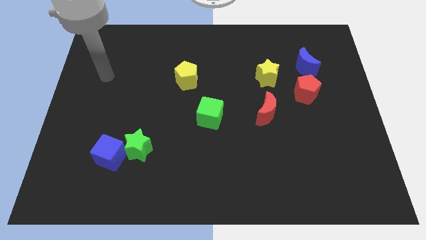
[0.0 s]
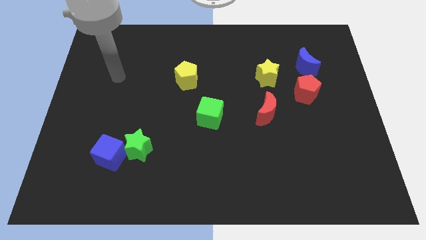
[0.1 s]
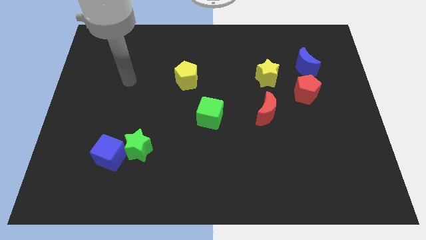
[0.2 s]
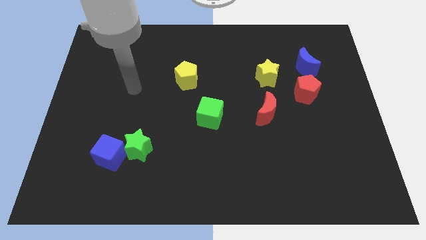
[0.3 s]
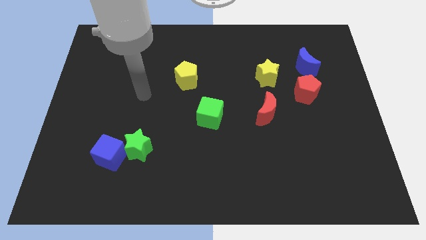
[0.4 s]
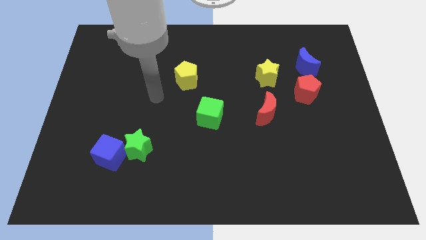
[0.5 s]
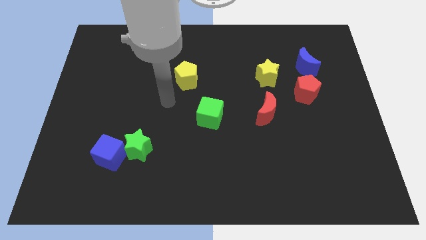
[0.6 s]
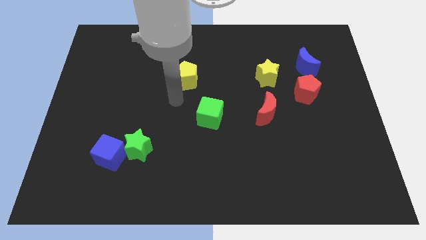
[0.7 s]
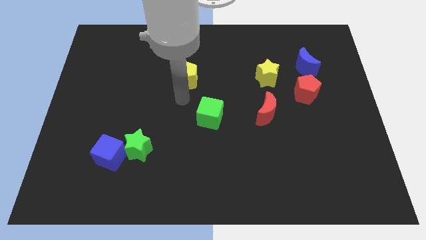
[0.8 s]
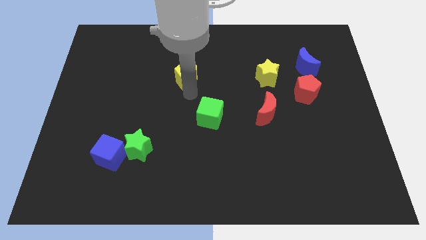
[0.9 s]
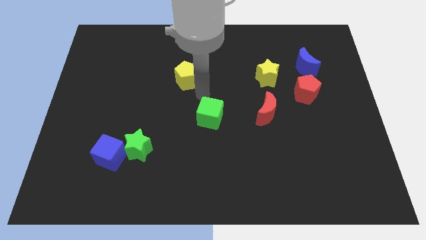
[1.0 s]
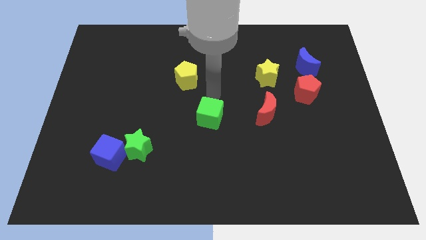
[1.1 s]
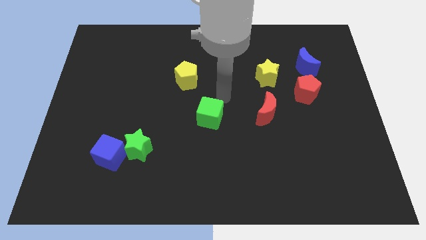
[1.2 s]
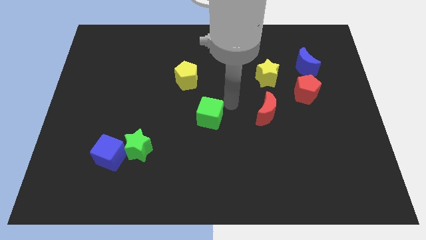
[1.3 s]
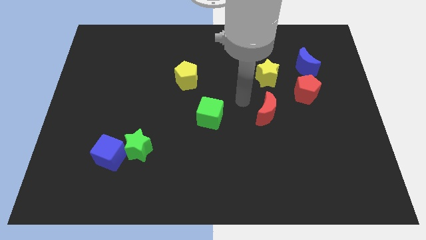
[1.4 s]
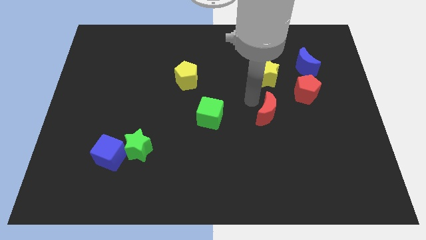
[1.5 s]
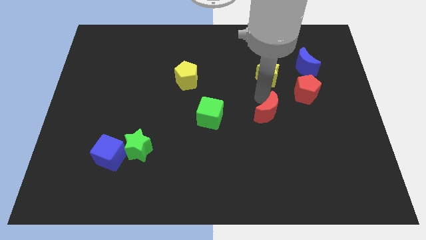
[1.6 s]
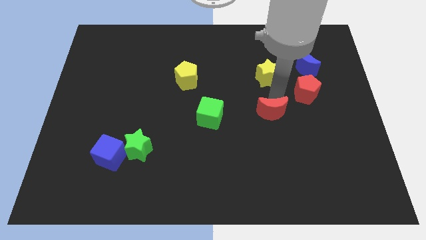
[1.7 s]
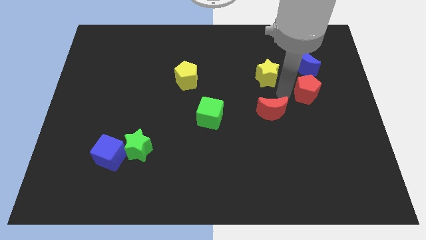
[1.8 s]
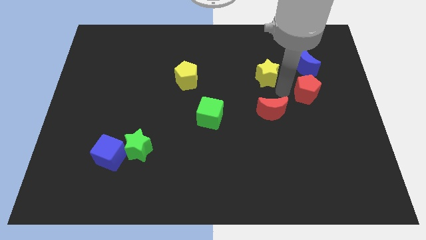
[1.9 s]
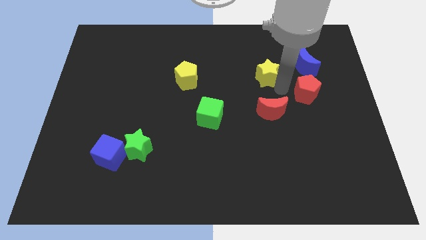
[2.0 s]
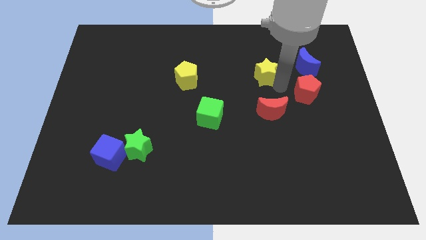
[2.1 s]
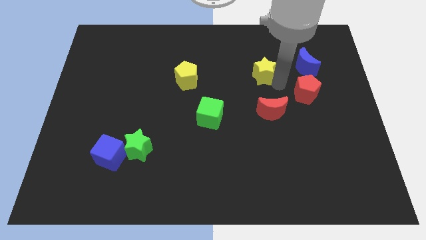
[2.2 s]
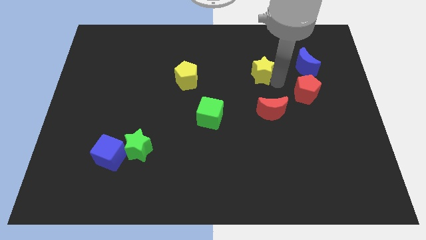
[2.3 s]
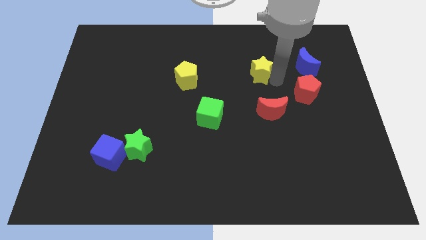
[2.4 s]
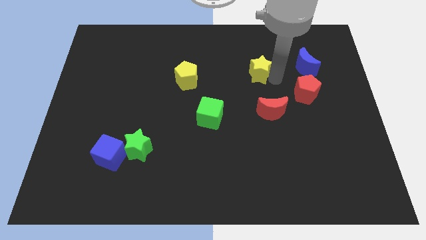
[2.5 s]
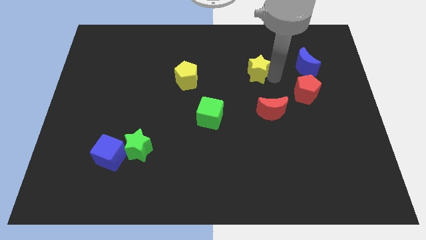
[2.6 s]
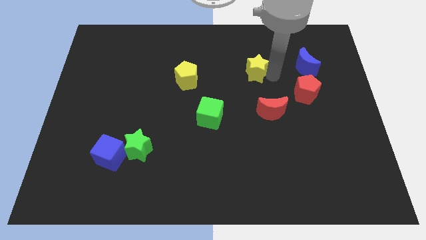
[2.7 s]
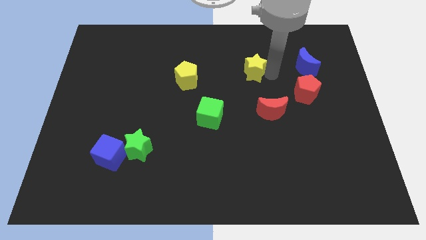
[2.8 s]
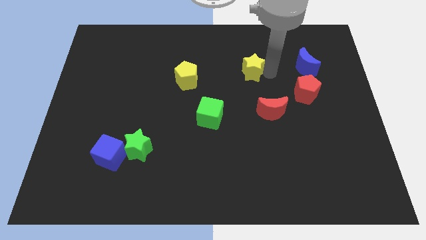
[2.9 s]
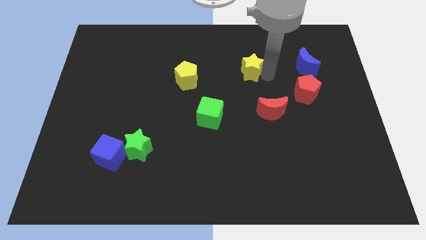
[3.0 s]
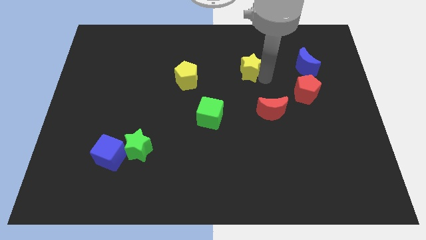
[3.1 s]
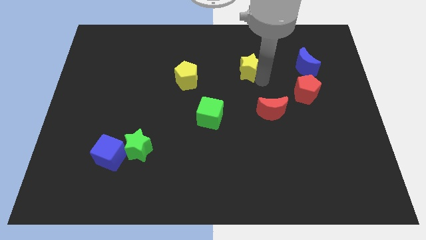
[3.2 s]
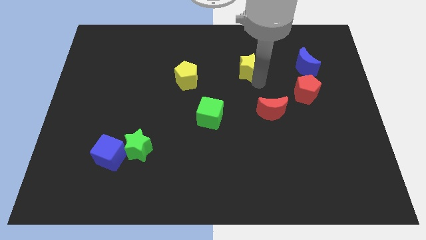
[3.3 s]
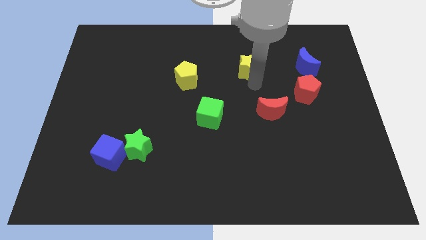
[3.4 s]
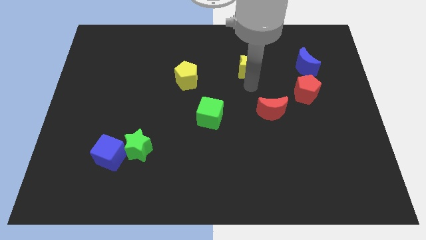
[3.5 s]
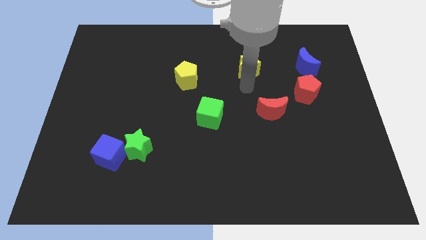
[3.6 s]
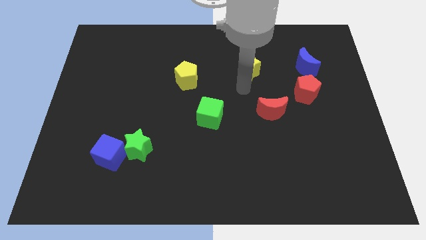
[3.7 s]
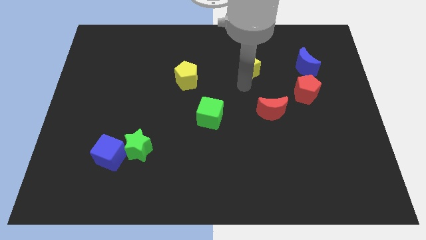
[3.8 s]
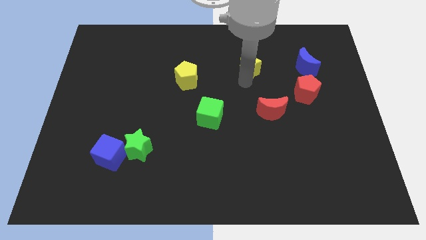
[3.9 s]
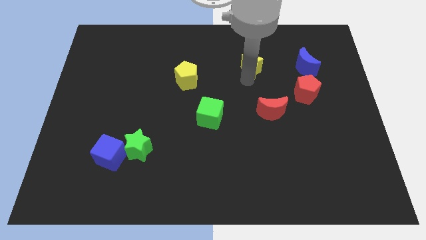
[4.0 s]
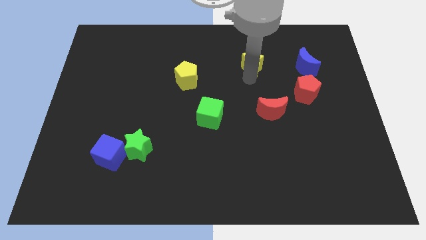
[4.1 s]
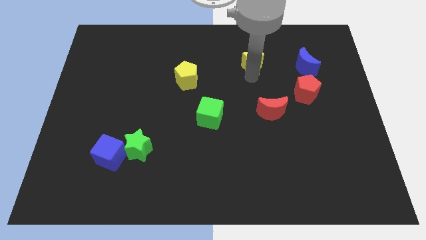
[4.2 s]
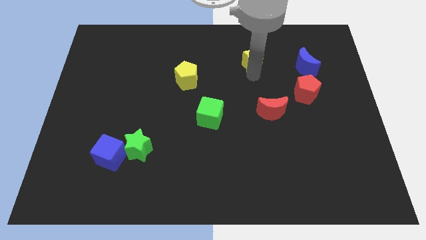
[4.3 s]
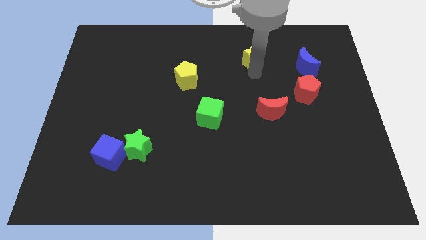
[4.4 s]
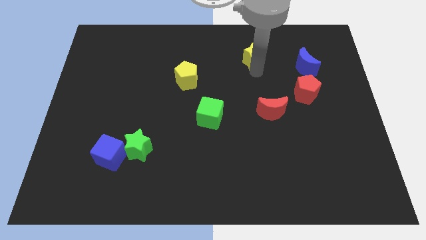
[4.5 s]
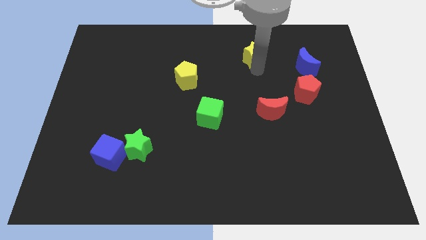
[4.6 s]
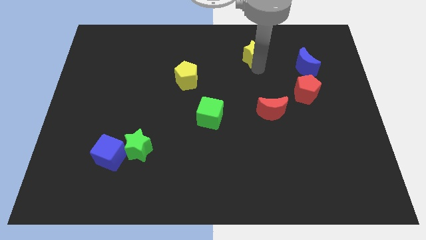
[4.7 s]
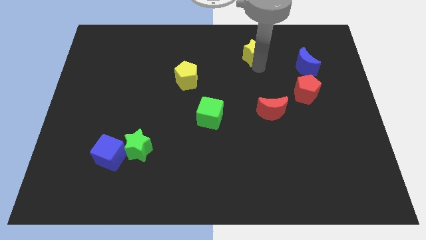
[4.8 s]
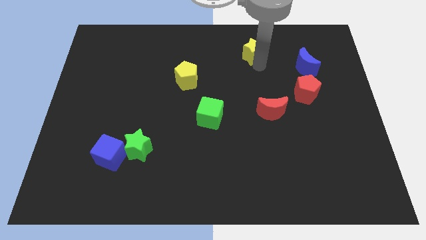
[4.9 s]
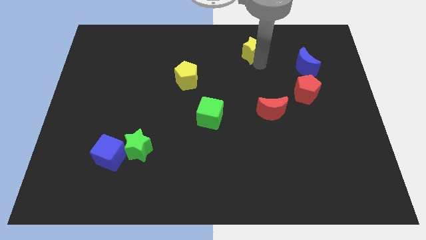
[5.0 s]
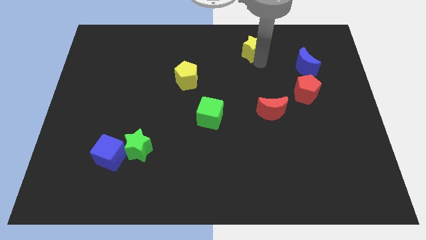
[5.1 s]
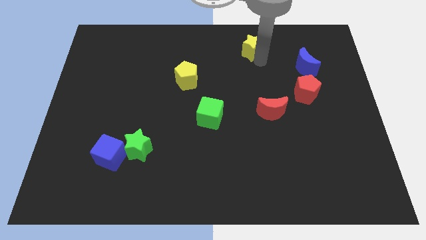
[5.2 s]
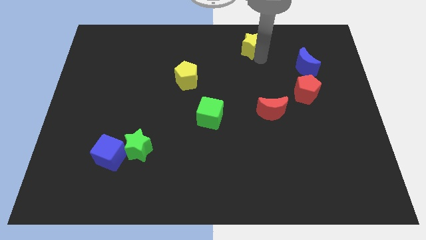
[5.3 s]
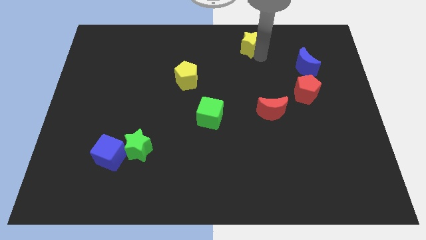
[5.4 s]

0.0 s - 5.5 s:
slide the yellow star to the towards your base
